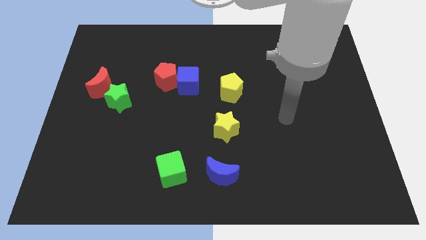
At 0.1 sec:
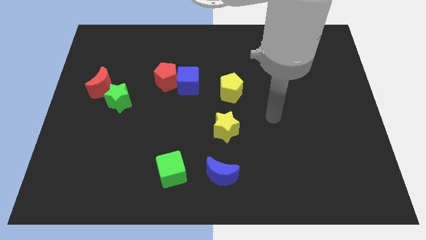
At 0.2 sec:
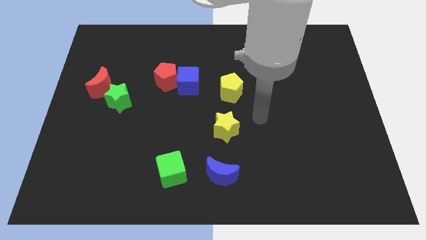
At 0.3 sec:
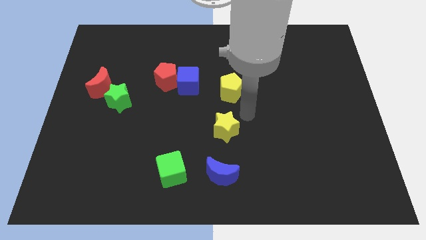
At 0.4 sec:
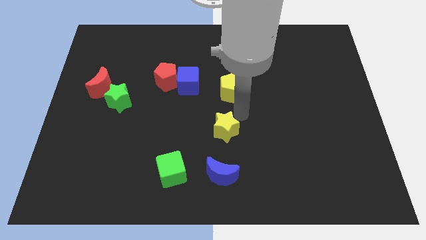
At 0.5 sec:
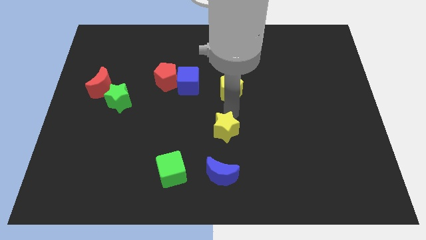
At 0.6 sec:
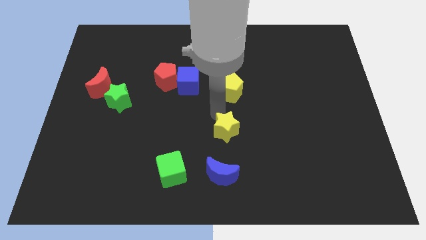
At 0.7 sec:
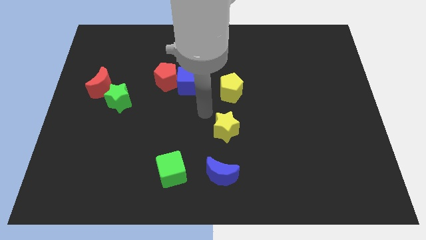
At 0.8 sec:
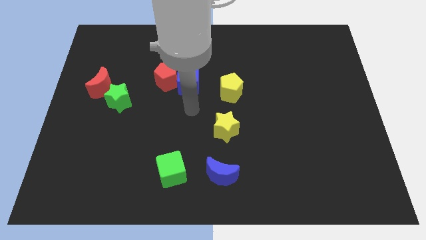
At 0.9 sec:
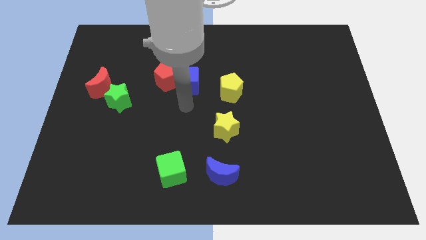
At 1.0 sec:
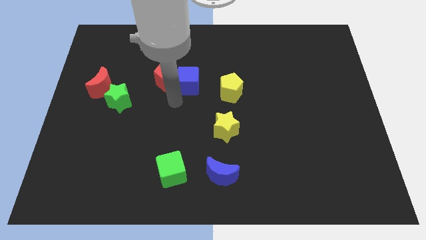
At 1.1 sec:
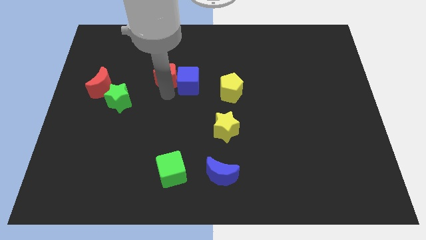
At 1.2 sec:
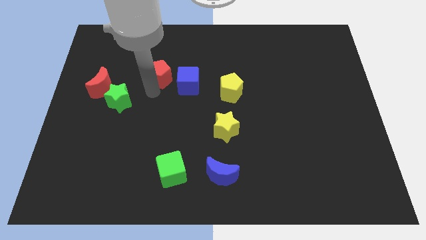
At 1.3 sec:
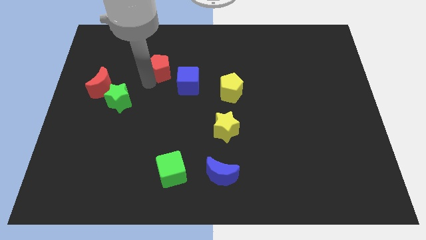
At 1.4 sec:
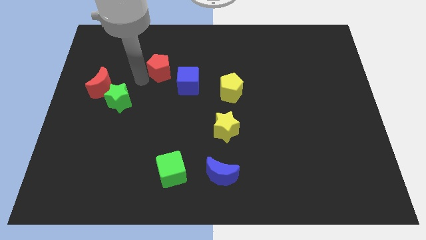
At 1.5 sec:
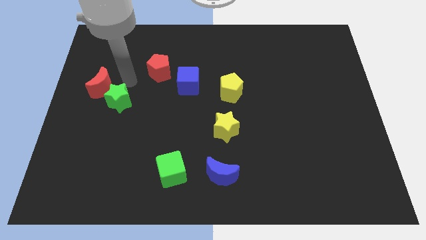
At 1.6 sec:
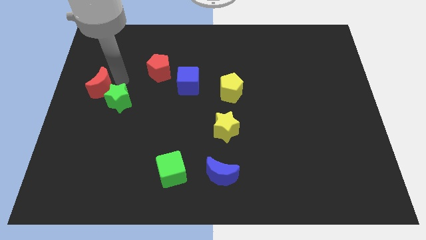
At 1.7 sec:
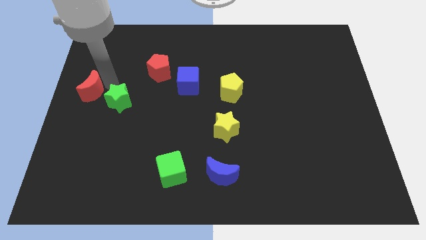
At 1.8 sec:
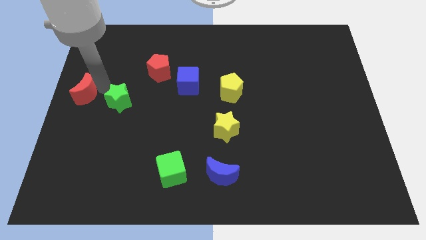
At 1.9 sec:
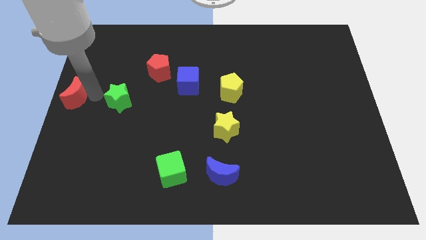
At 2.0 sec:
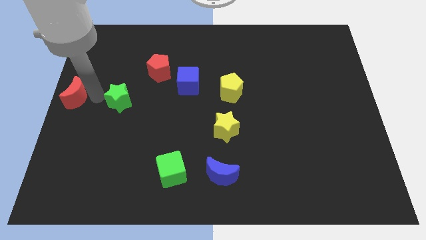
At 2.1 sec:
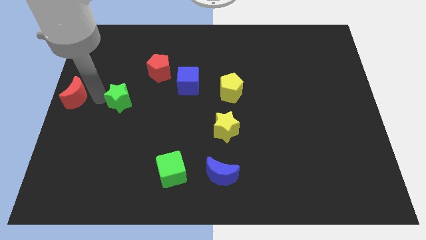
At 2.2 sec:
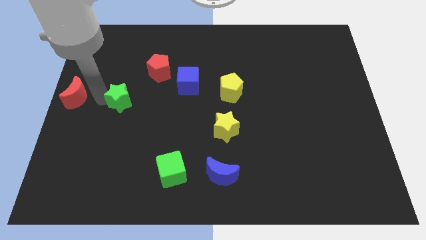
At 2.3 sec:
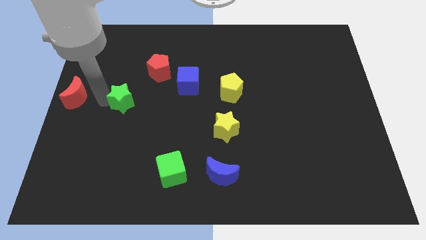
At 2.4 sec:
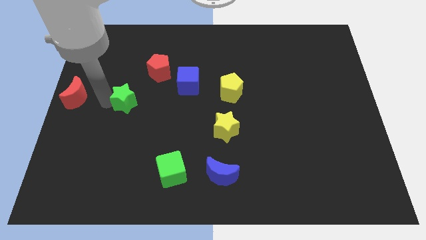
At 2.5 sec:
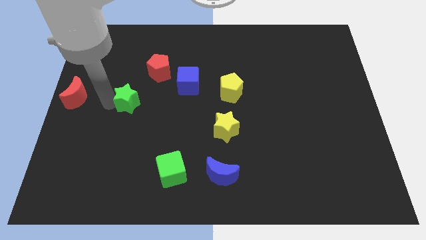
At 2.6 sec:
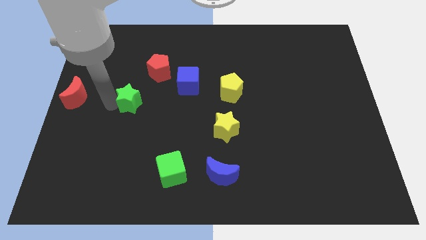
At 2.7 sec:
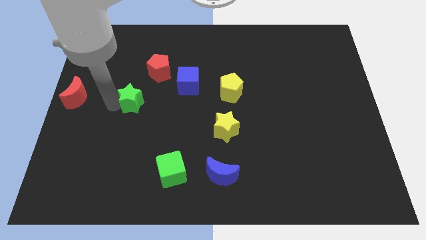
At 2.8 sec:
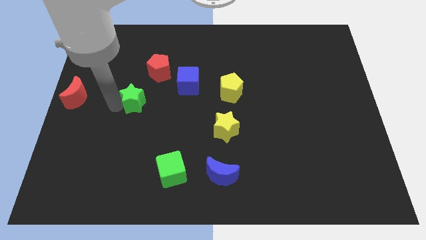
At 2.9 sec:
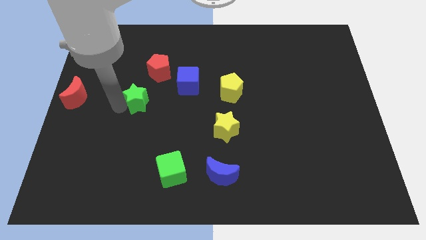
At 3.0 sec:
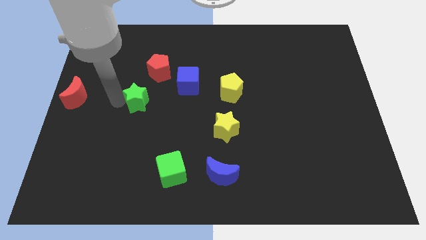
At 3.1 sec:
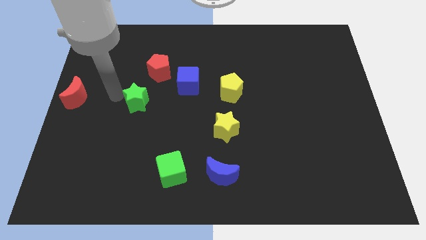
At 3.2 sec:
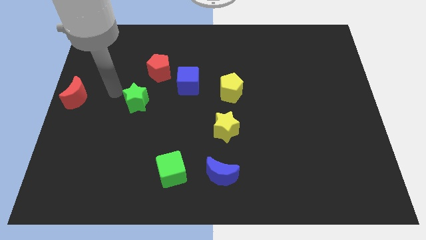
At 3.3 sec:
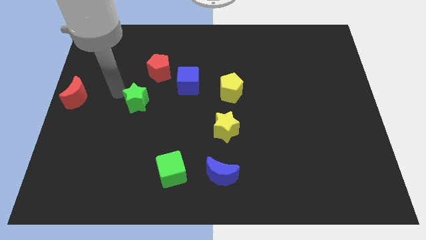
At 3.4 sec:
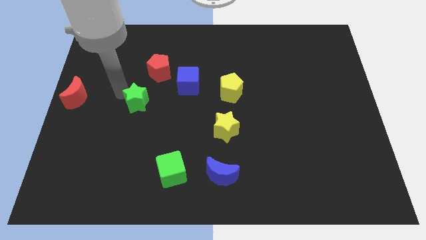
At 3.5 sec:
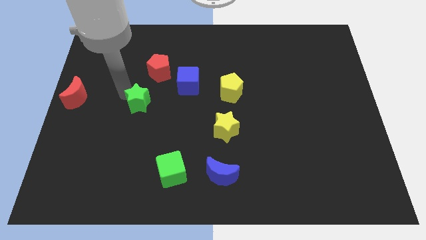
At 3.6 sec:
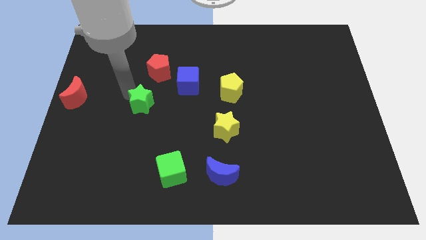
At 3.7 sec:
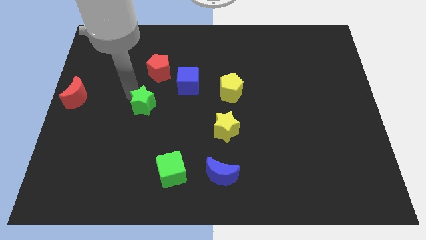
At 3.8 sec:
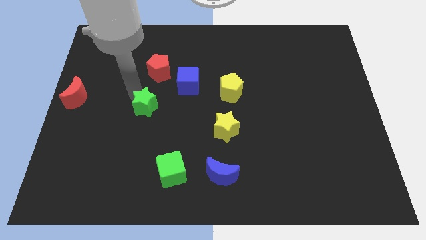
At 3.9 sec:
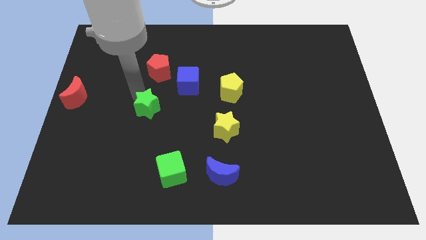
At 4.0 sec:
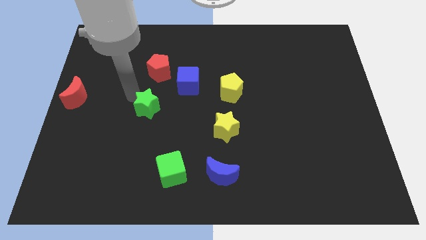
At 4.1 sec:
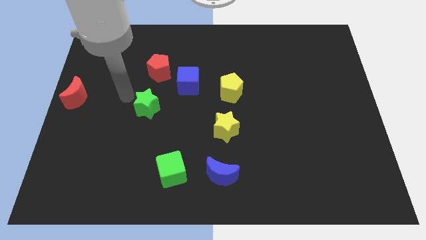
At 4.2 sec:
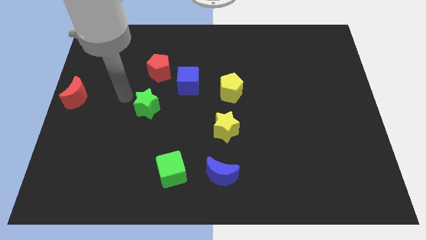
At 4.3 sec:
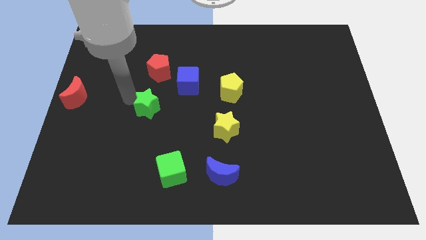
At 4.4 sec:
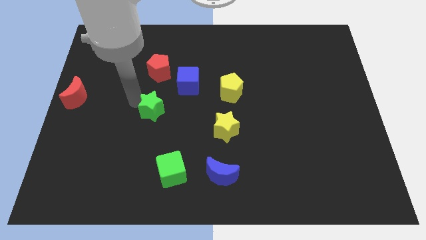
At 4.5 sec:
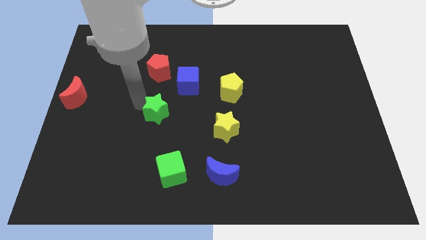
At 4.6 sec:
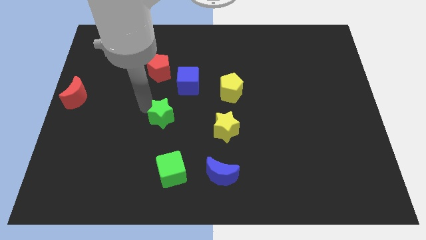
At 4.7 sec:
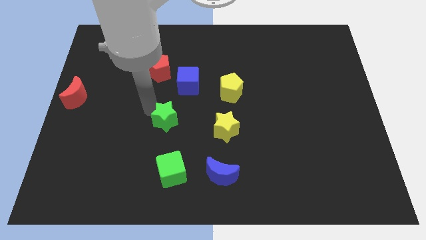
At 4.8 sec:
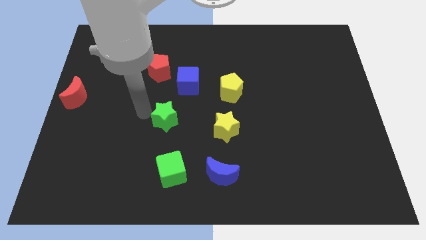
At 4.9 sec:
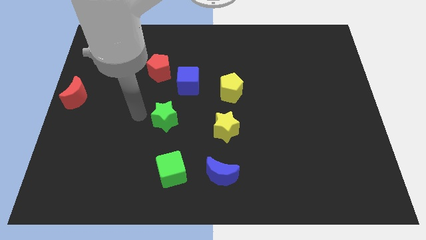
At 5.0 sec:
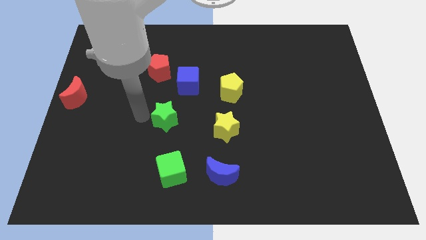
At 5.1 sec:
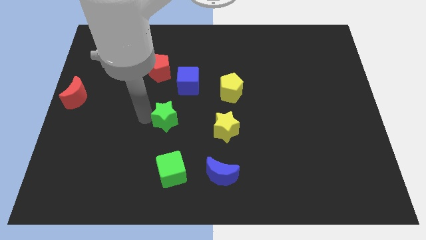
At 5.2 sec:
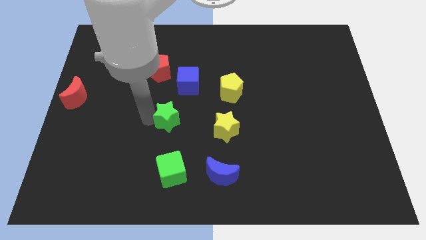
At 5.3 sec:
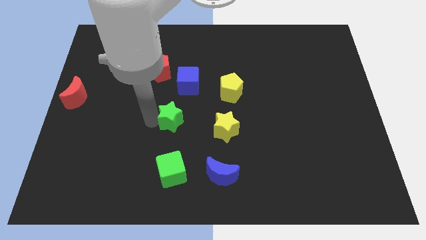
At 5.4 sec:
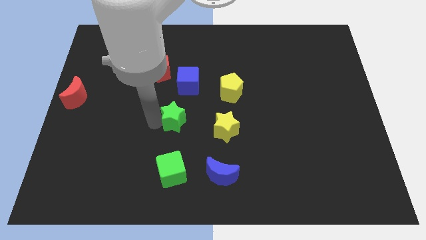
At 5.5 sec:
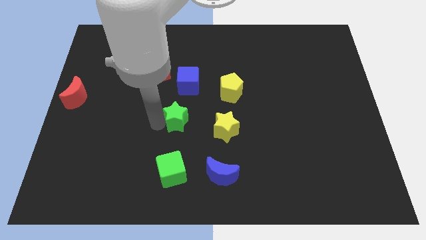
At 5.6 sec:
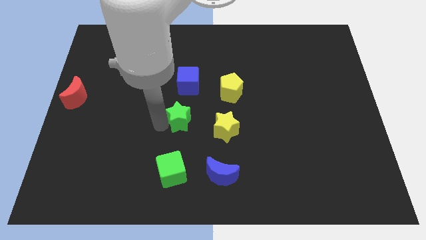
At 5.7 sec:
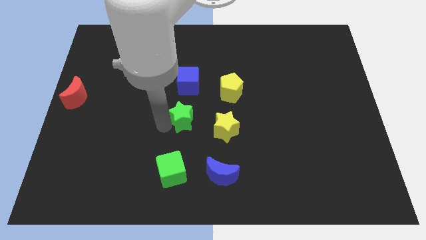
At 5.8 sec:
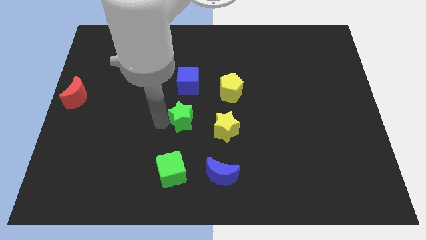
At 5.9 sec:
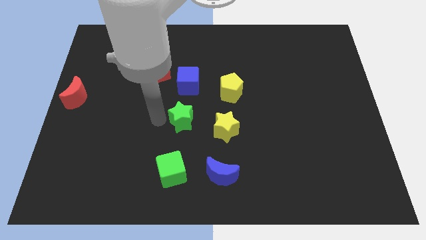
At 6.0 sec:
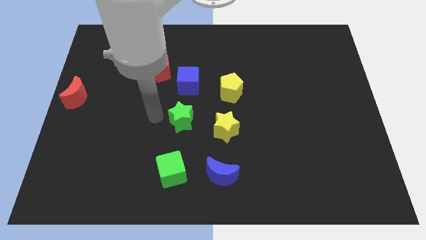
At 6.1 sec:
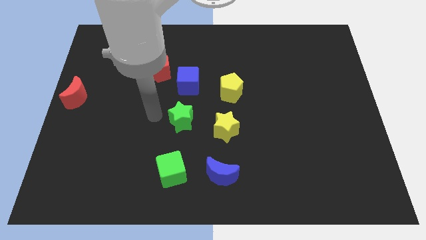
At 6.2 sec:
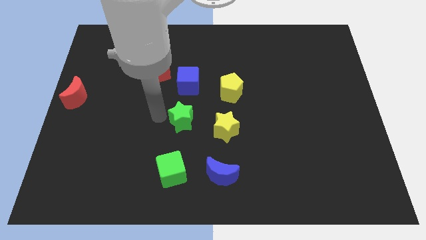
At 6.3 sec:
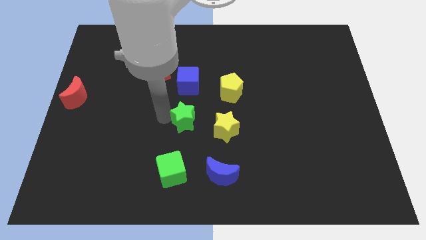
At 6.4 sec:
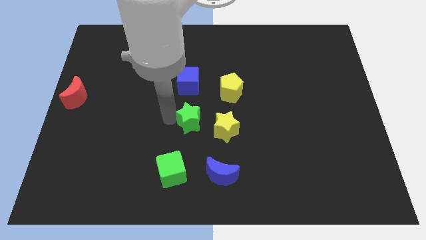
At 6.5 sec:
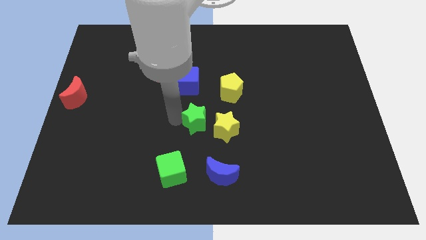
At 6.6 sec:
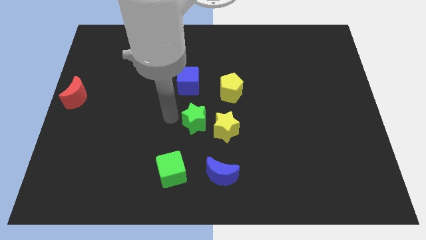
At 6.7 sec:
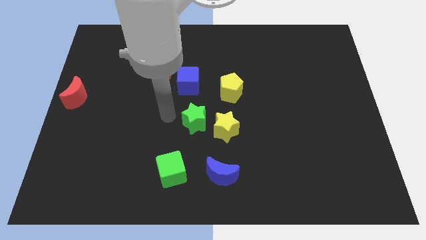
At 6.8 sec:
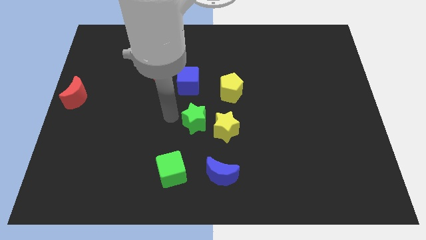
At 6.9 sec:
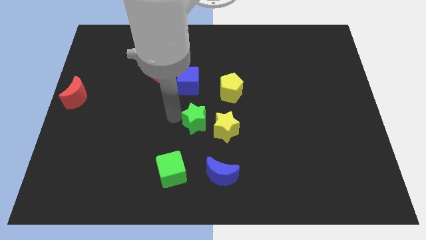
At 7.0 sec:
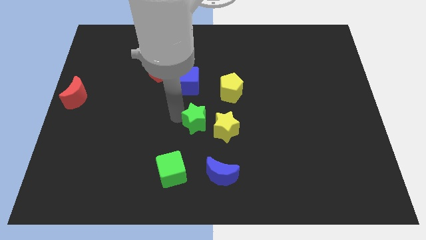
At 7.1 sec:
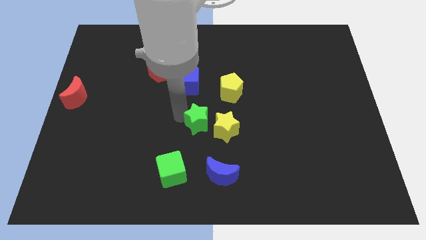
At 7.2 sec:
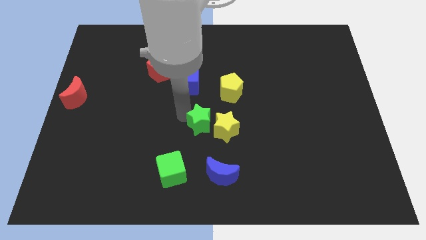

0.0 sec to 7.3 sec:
slide the green star to the yellow star
